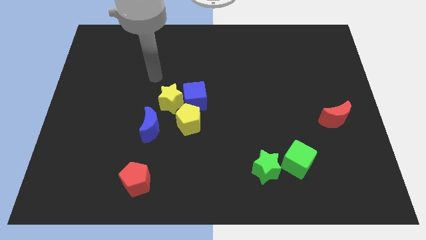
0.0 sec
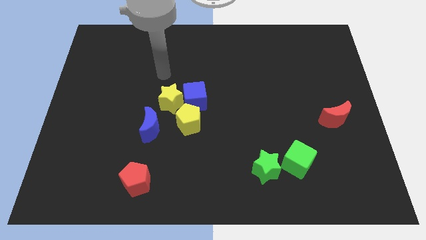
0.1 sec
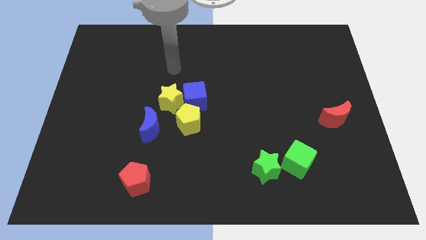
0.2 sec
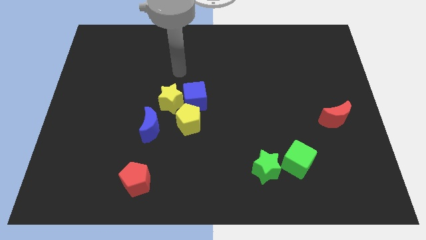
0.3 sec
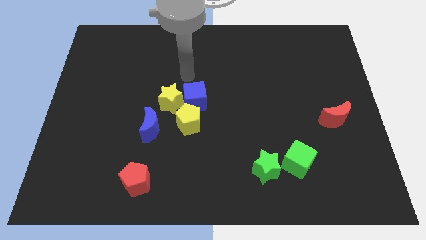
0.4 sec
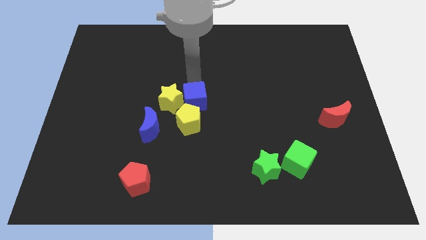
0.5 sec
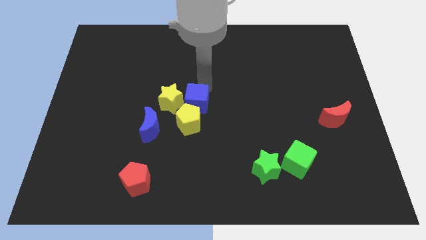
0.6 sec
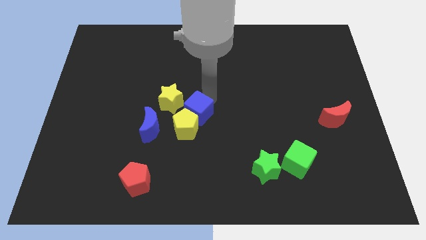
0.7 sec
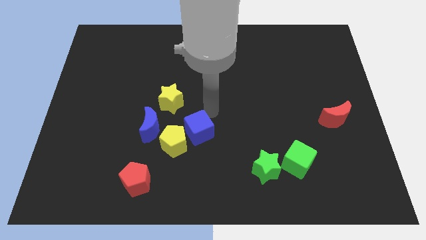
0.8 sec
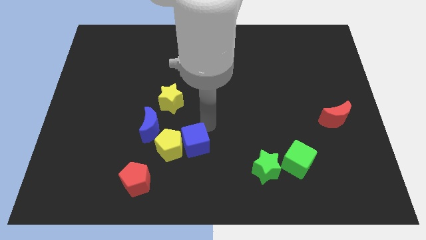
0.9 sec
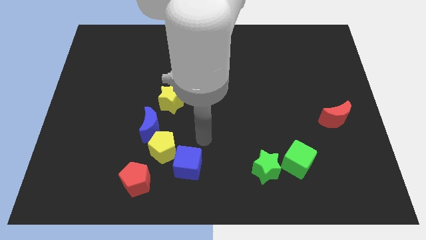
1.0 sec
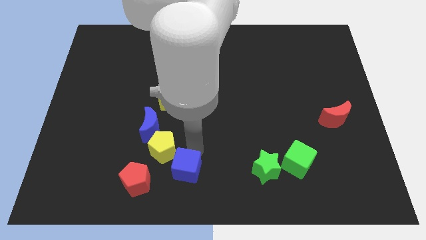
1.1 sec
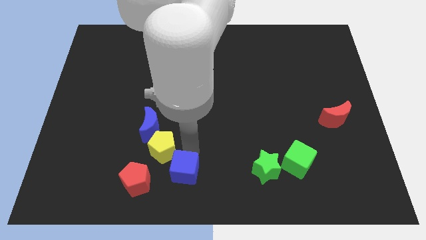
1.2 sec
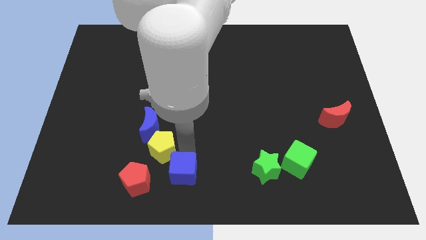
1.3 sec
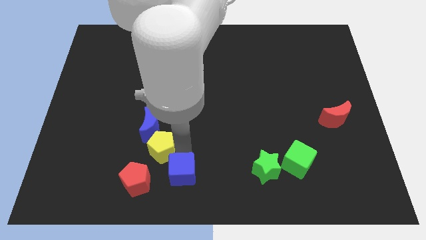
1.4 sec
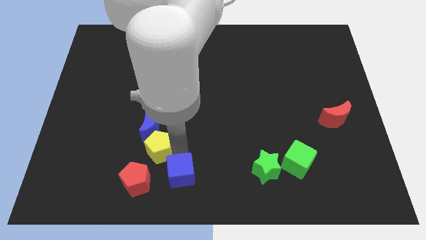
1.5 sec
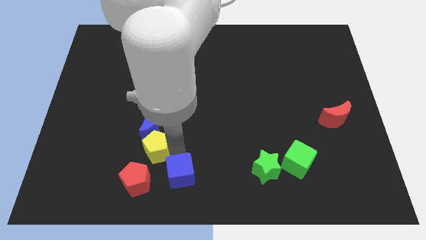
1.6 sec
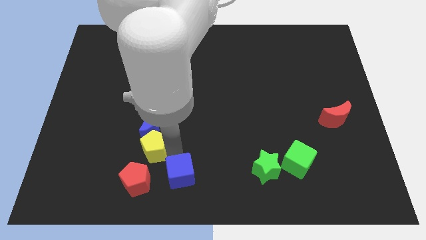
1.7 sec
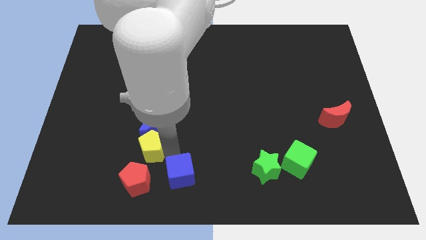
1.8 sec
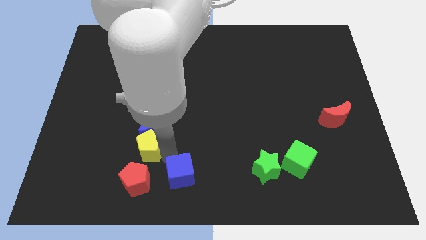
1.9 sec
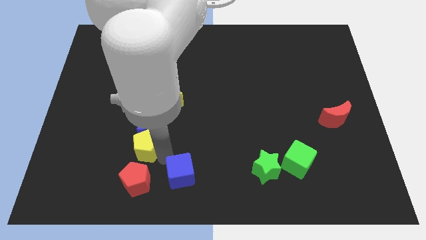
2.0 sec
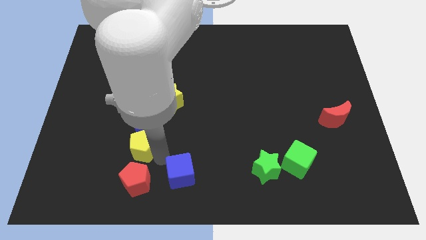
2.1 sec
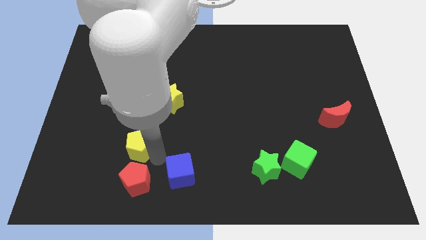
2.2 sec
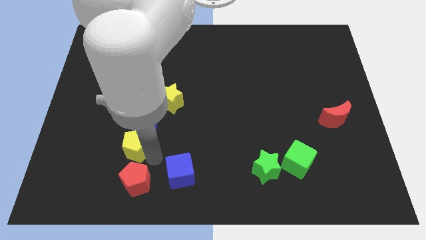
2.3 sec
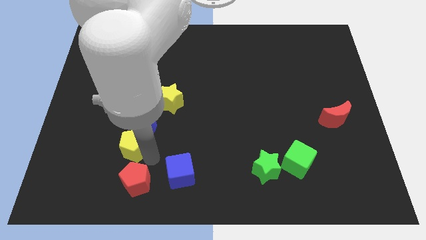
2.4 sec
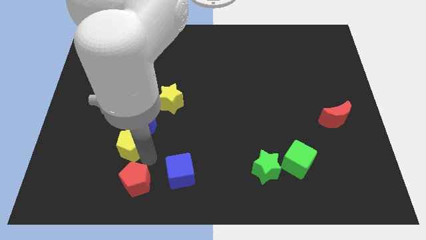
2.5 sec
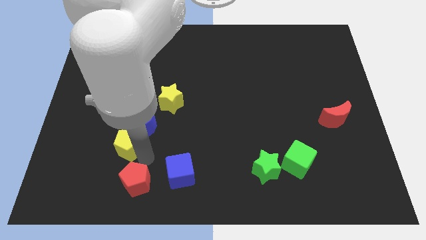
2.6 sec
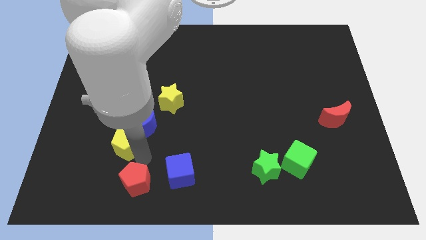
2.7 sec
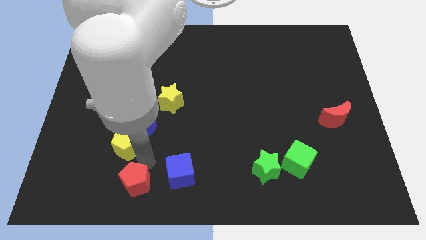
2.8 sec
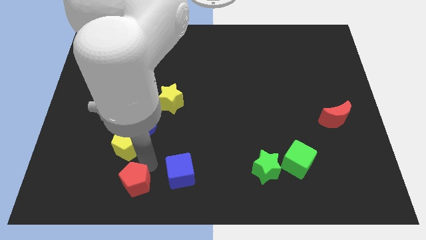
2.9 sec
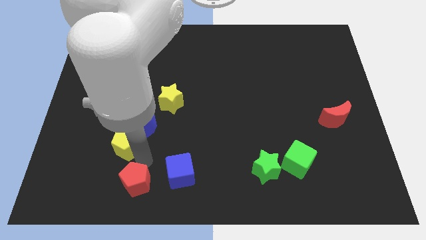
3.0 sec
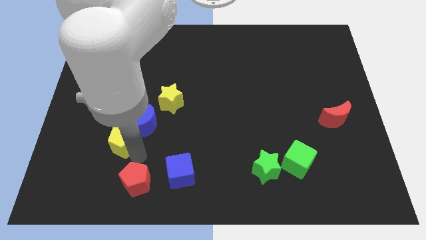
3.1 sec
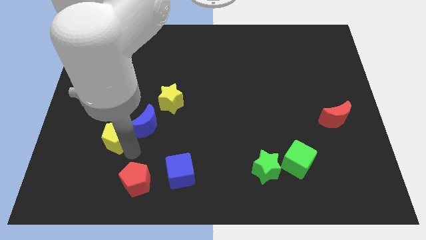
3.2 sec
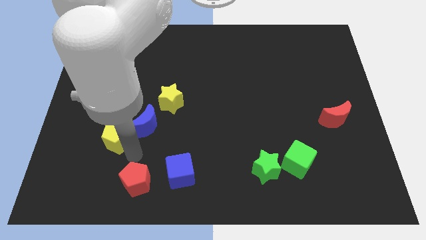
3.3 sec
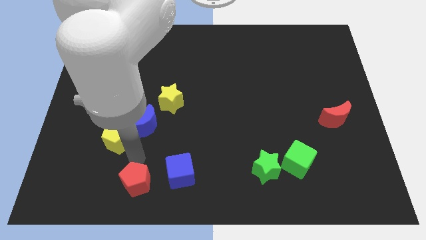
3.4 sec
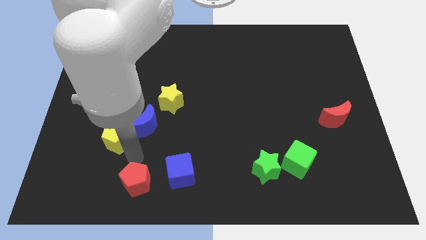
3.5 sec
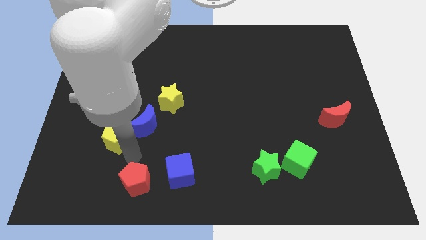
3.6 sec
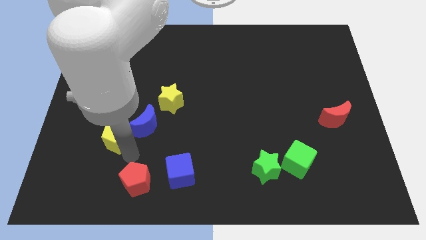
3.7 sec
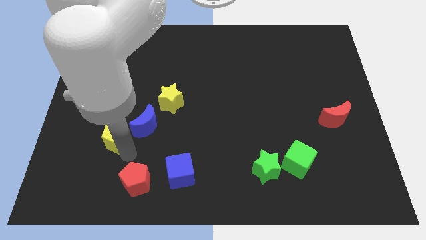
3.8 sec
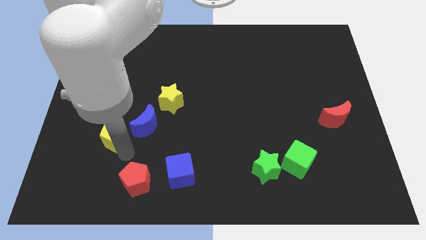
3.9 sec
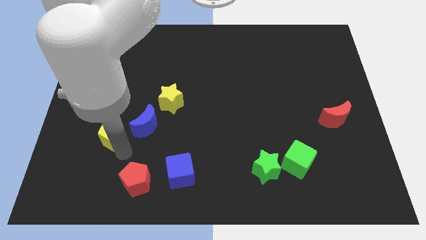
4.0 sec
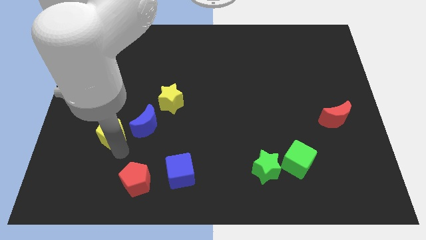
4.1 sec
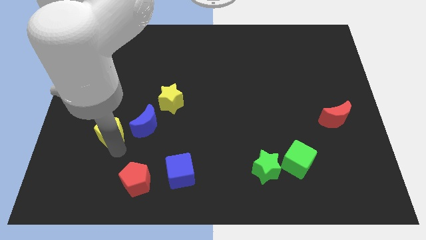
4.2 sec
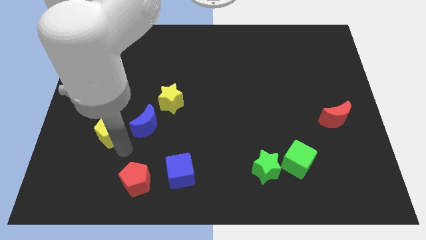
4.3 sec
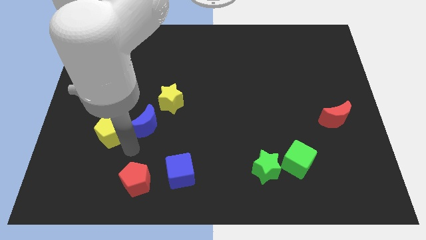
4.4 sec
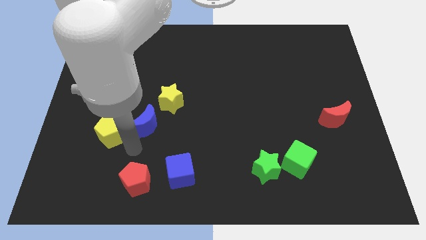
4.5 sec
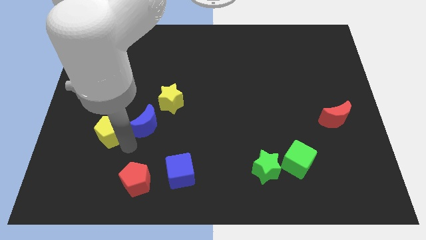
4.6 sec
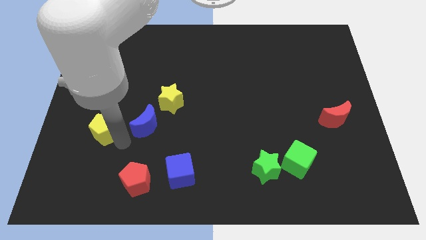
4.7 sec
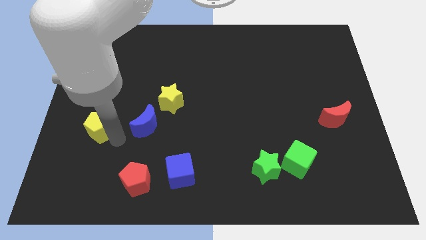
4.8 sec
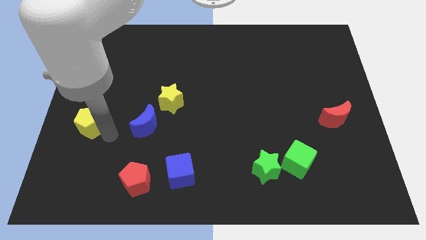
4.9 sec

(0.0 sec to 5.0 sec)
slide the yellow pentagon to the left side of the board

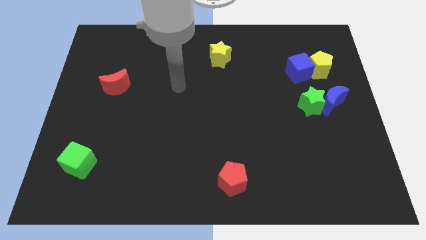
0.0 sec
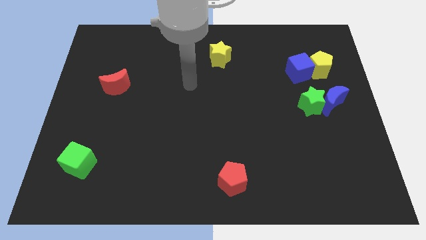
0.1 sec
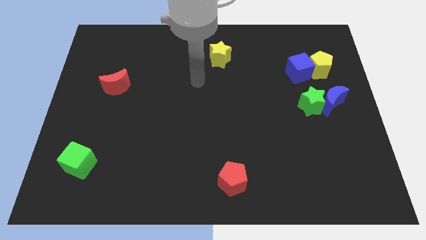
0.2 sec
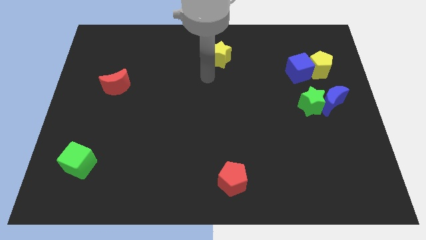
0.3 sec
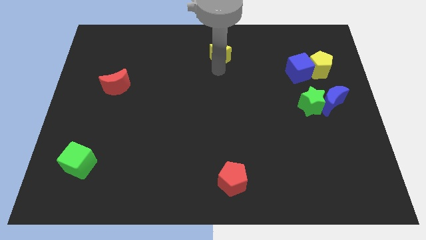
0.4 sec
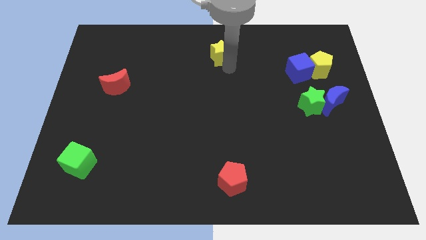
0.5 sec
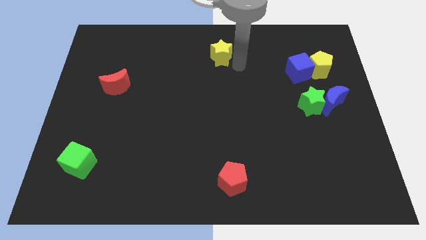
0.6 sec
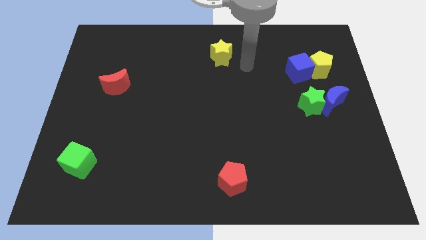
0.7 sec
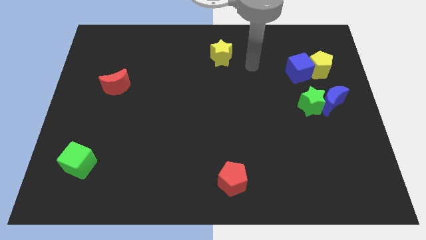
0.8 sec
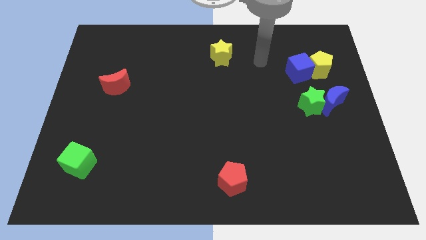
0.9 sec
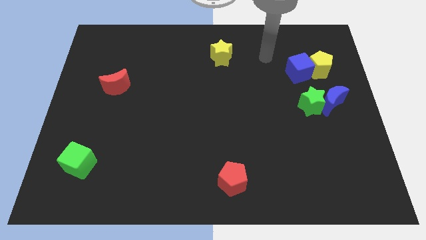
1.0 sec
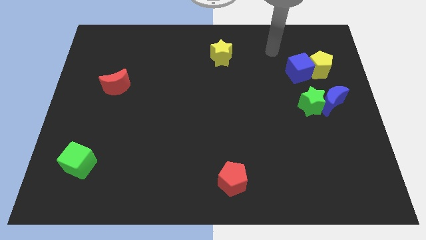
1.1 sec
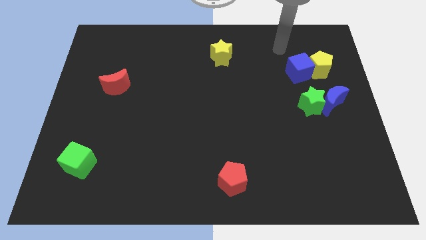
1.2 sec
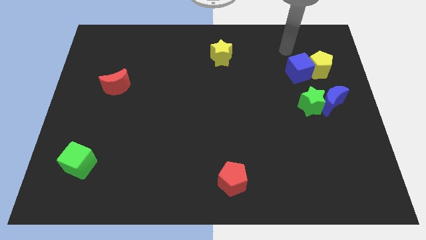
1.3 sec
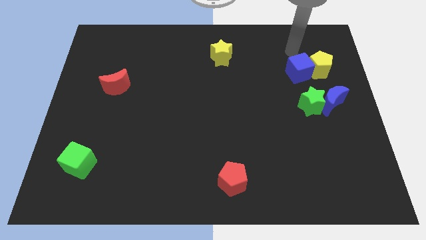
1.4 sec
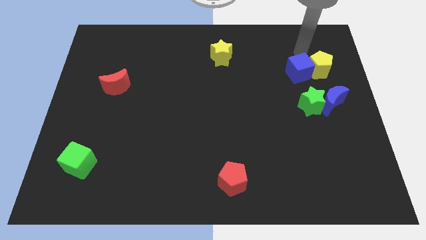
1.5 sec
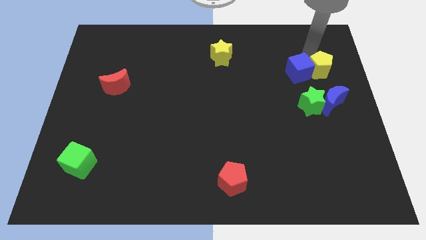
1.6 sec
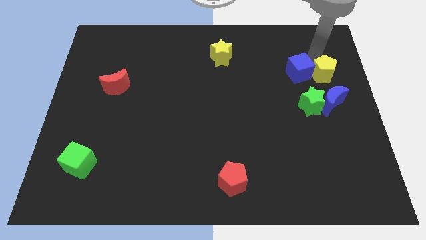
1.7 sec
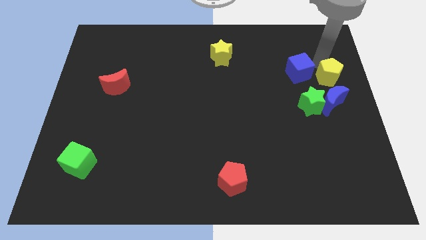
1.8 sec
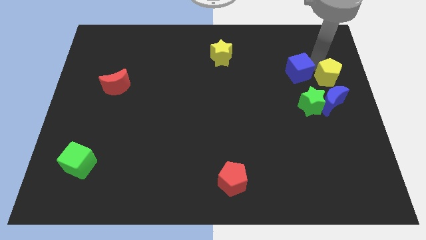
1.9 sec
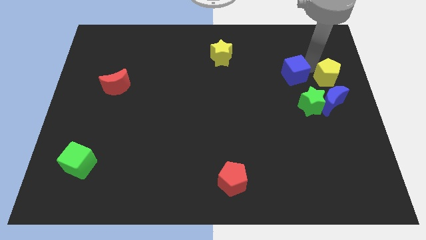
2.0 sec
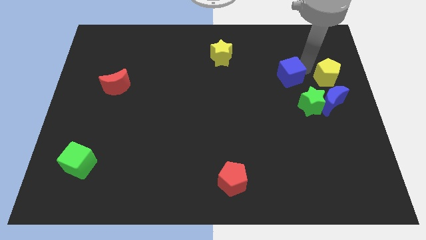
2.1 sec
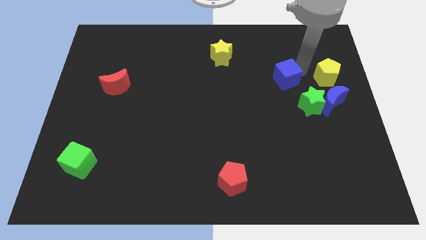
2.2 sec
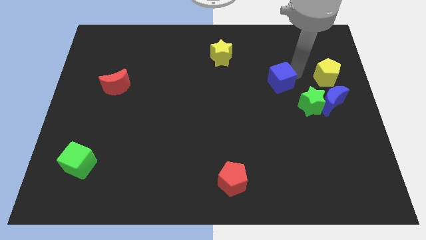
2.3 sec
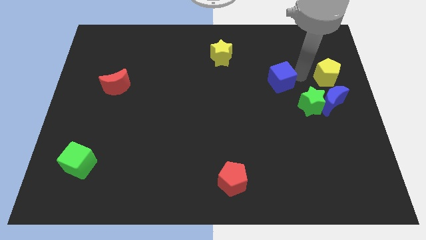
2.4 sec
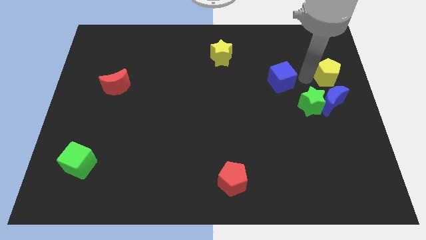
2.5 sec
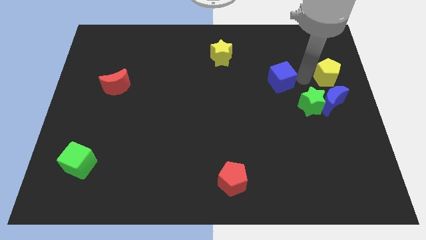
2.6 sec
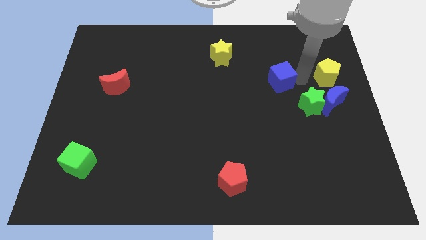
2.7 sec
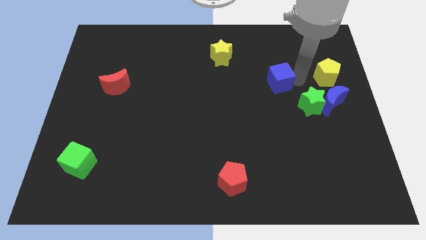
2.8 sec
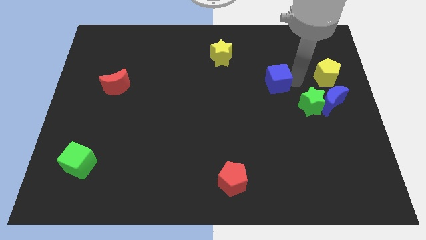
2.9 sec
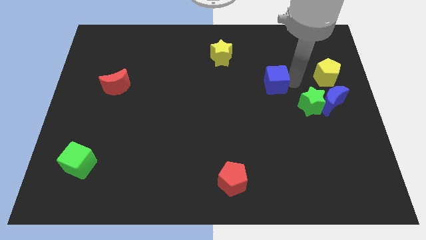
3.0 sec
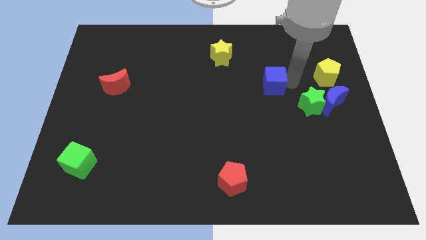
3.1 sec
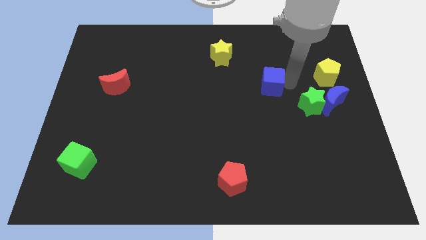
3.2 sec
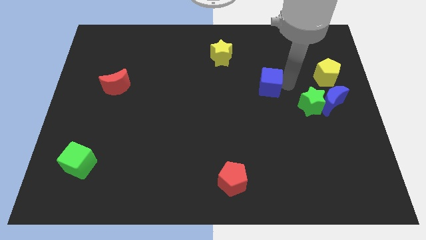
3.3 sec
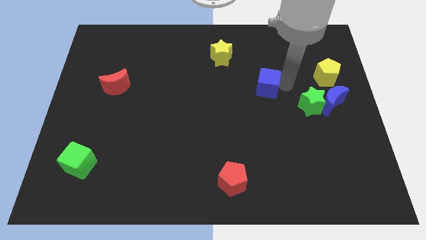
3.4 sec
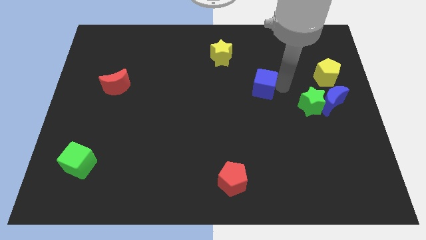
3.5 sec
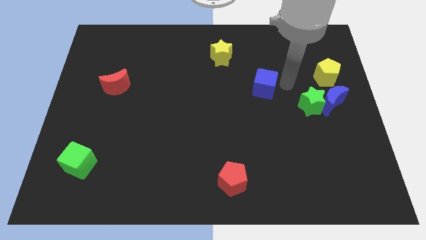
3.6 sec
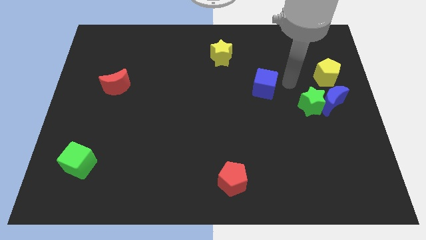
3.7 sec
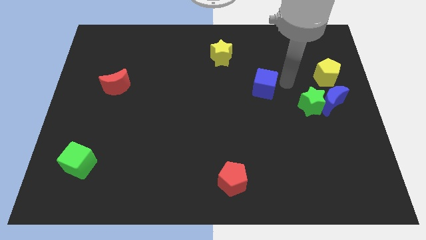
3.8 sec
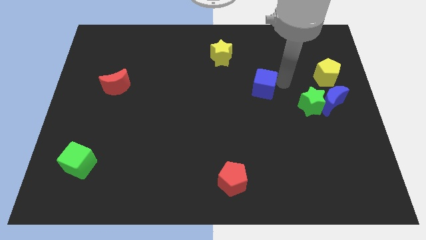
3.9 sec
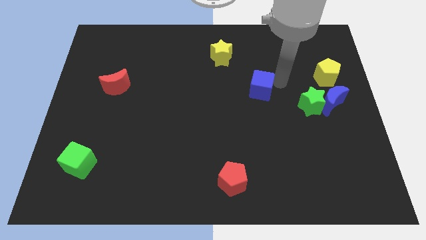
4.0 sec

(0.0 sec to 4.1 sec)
slide the blue cube to the center of the board
